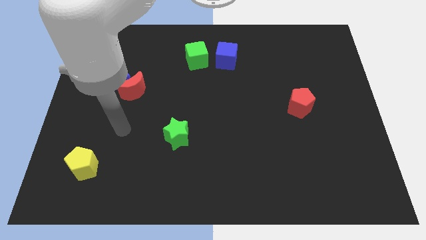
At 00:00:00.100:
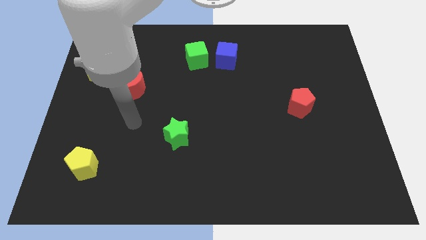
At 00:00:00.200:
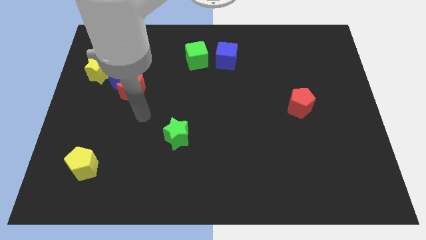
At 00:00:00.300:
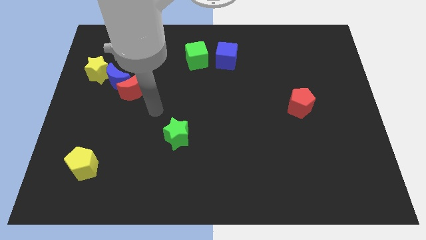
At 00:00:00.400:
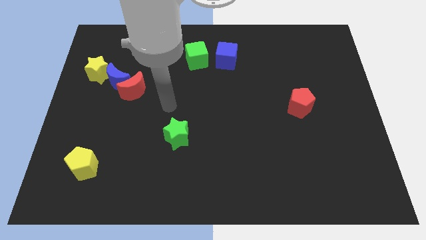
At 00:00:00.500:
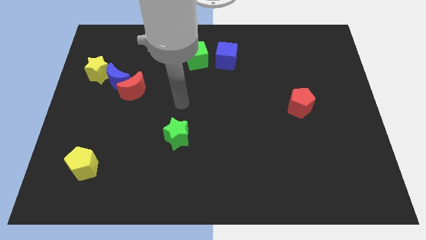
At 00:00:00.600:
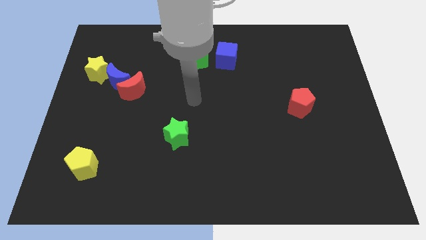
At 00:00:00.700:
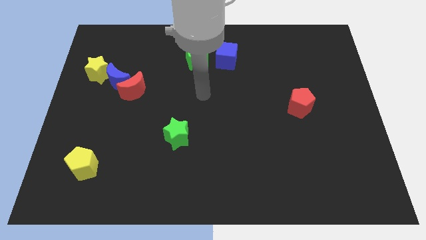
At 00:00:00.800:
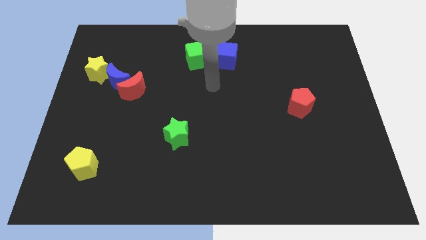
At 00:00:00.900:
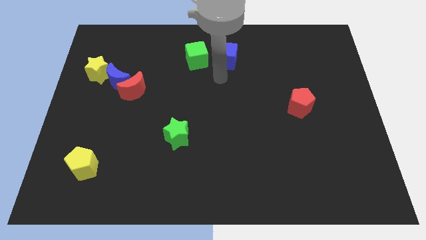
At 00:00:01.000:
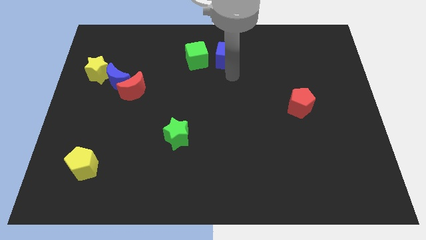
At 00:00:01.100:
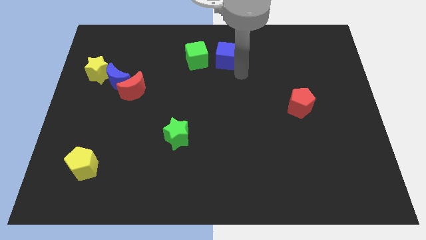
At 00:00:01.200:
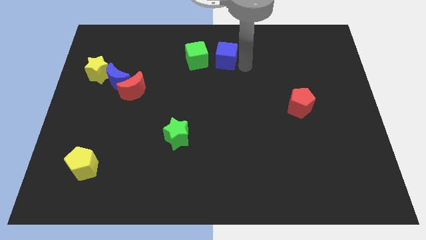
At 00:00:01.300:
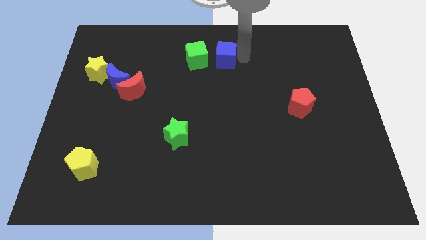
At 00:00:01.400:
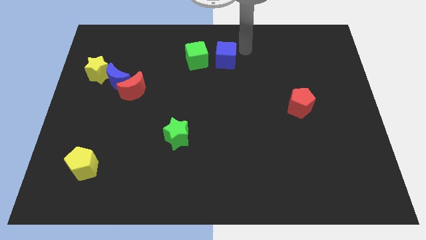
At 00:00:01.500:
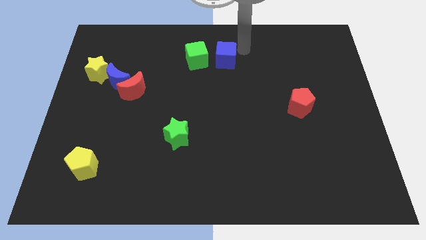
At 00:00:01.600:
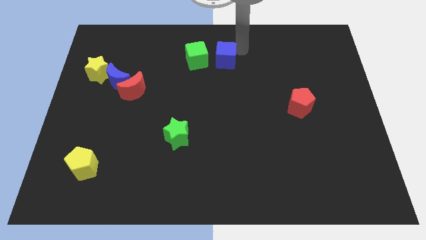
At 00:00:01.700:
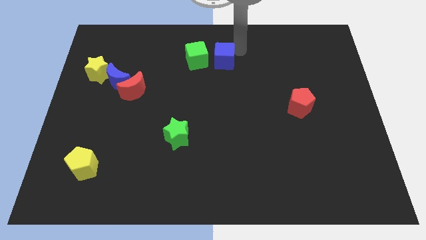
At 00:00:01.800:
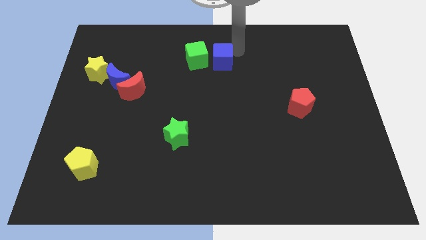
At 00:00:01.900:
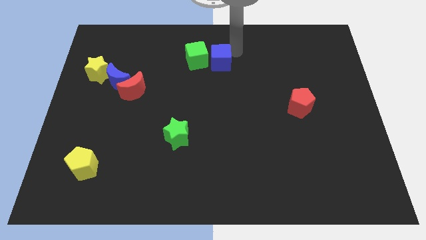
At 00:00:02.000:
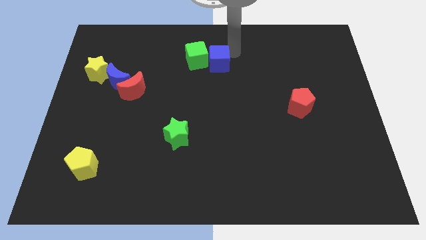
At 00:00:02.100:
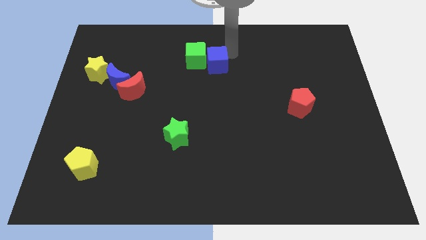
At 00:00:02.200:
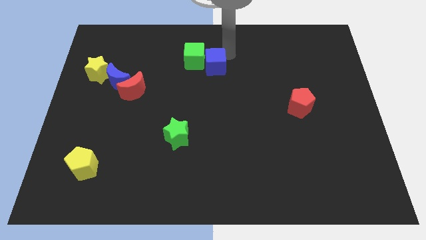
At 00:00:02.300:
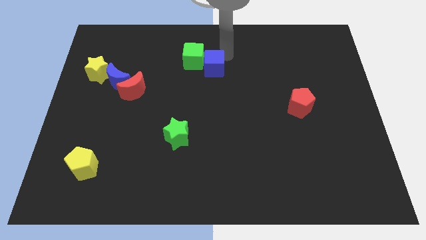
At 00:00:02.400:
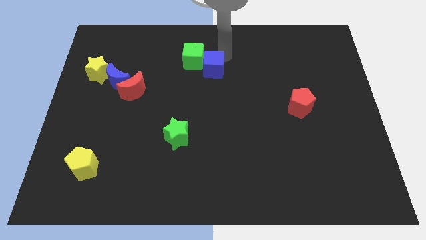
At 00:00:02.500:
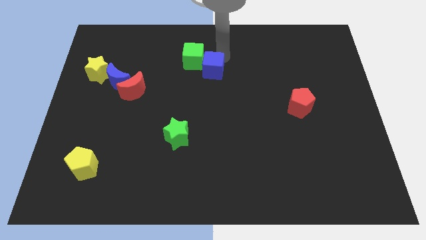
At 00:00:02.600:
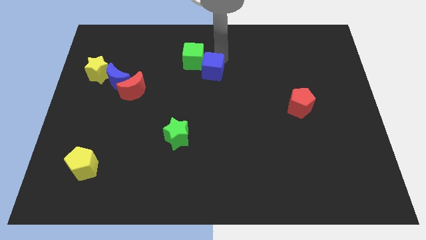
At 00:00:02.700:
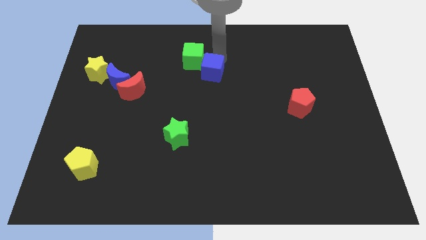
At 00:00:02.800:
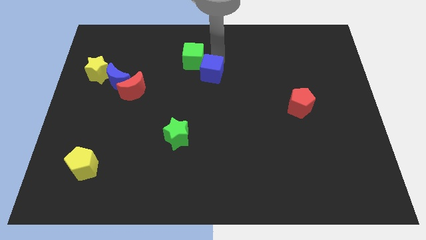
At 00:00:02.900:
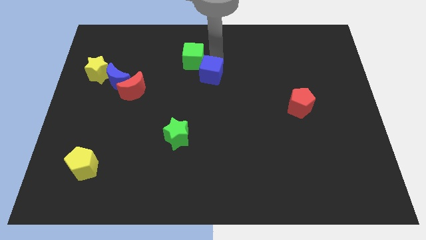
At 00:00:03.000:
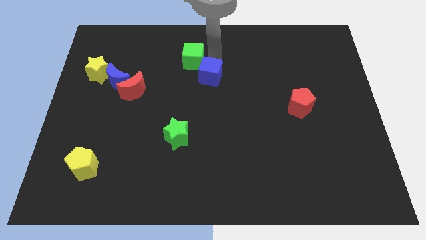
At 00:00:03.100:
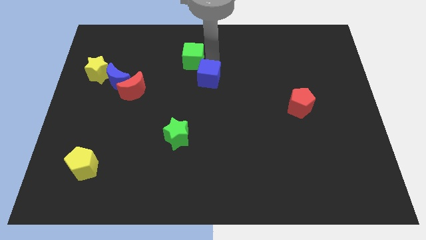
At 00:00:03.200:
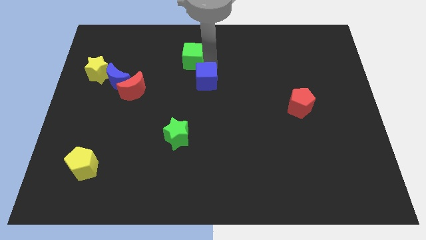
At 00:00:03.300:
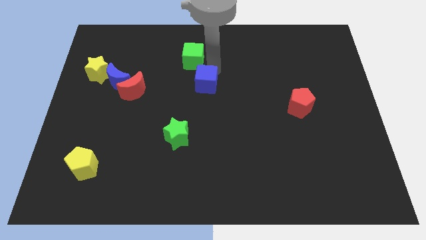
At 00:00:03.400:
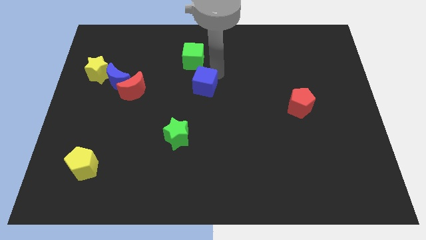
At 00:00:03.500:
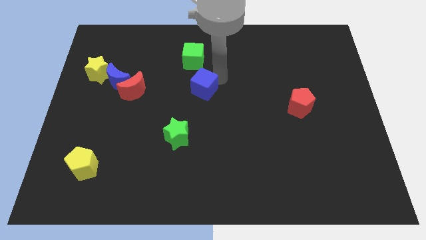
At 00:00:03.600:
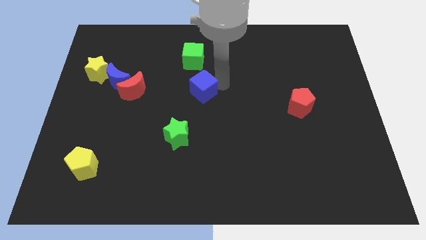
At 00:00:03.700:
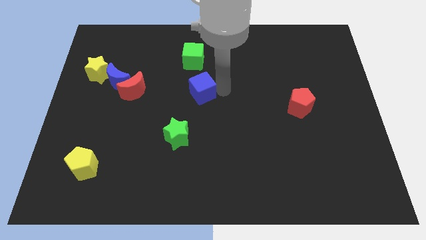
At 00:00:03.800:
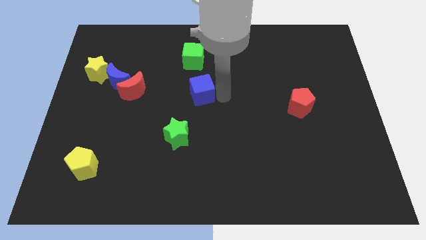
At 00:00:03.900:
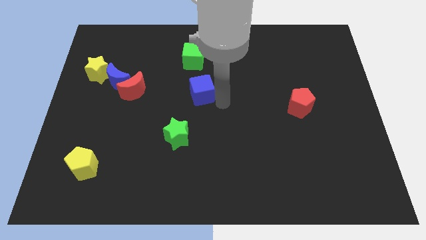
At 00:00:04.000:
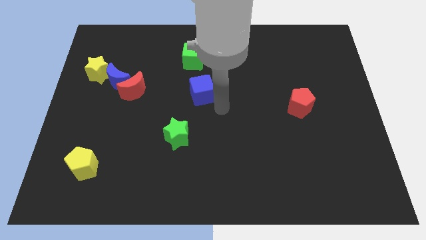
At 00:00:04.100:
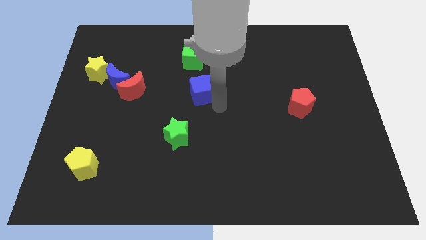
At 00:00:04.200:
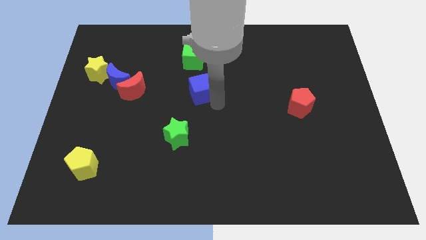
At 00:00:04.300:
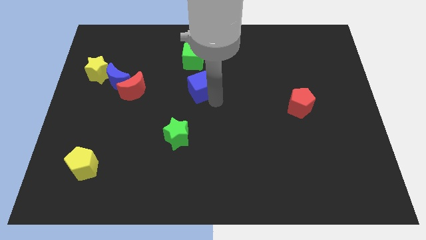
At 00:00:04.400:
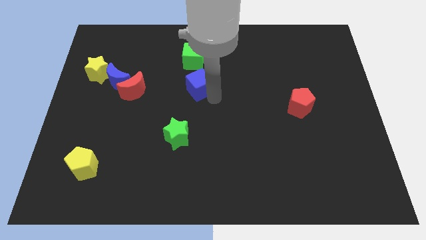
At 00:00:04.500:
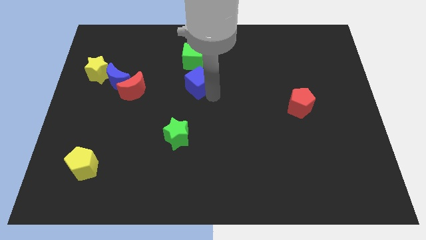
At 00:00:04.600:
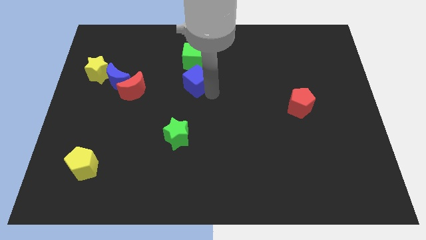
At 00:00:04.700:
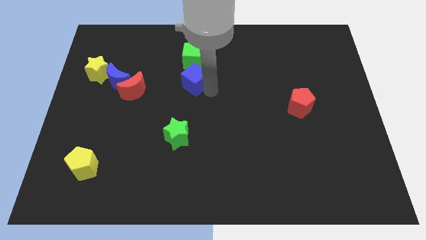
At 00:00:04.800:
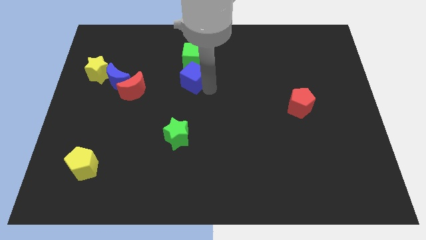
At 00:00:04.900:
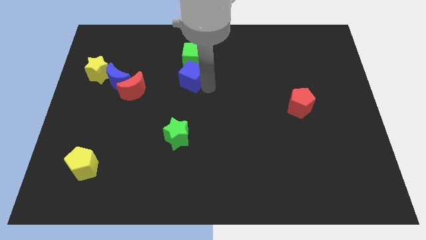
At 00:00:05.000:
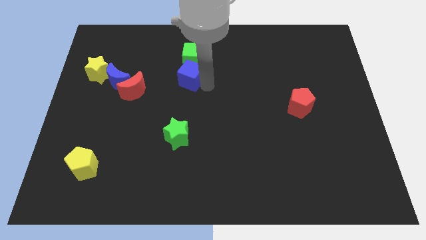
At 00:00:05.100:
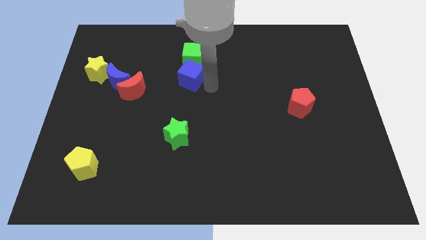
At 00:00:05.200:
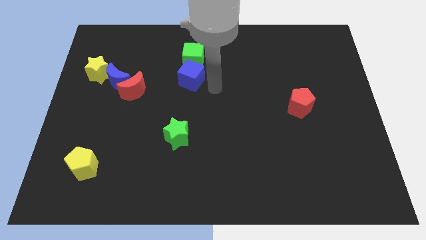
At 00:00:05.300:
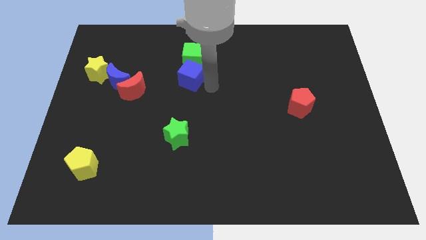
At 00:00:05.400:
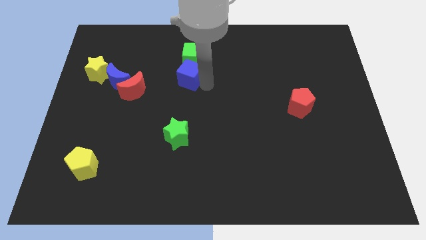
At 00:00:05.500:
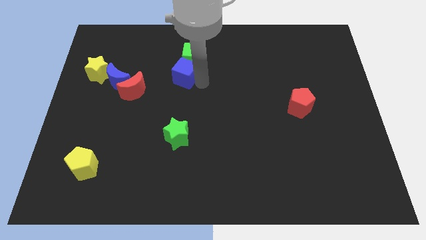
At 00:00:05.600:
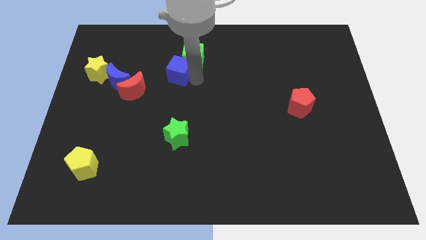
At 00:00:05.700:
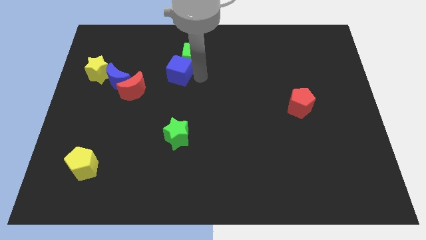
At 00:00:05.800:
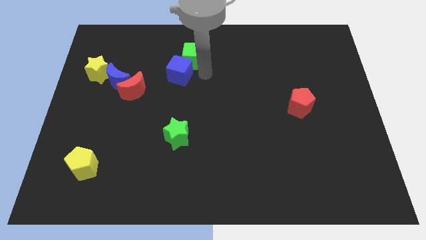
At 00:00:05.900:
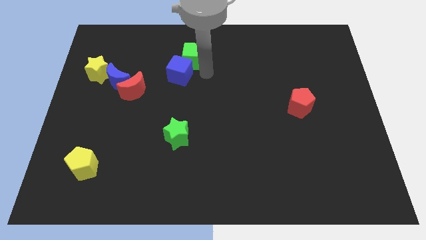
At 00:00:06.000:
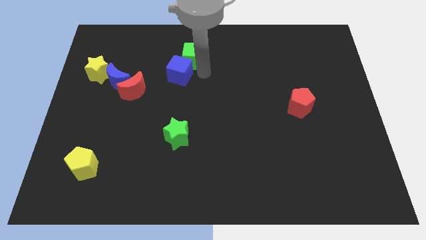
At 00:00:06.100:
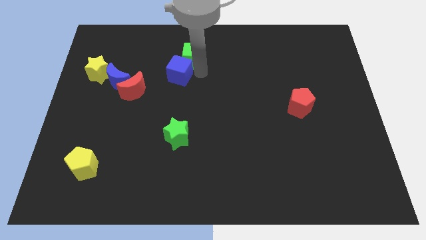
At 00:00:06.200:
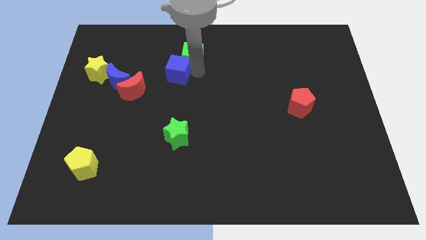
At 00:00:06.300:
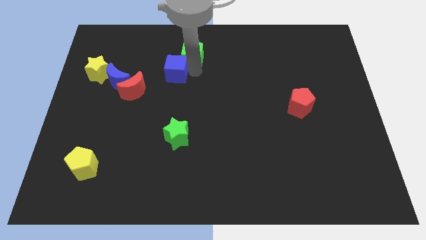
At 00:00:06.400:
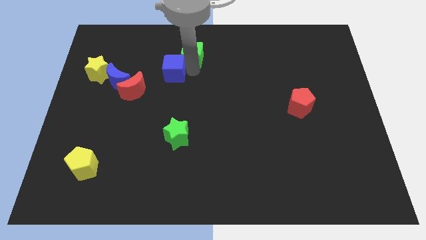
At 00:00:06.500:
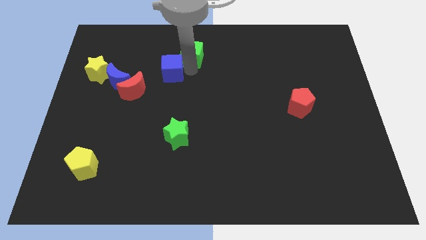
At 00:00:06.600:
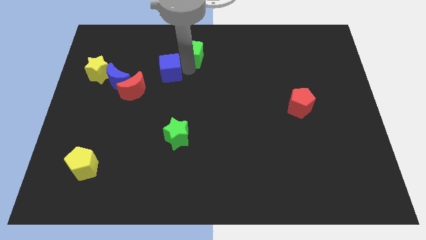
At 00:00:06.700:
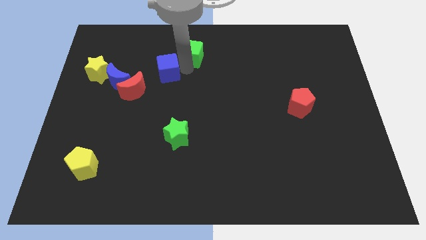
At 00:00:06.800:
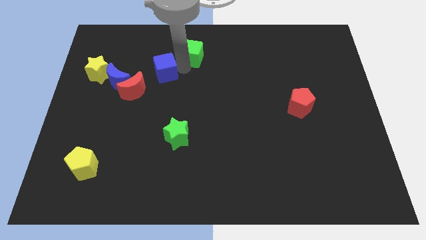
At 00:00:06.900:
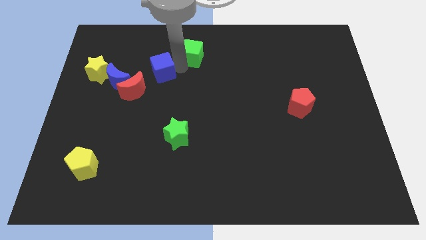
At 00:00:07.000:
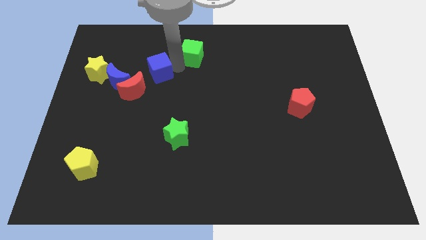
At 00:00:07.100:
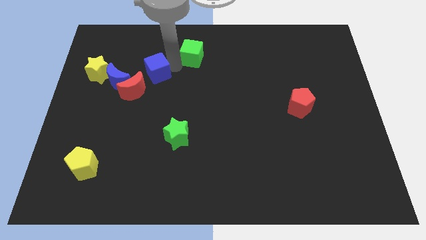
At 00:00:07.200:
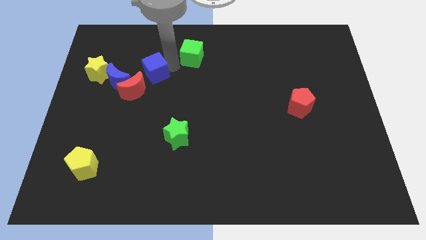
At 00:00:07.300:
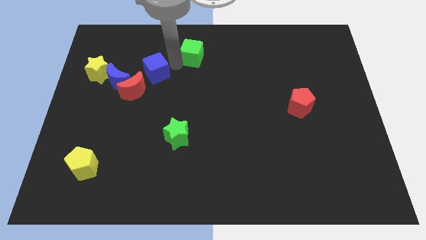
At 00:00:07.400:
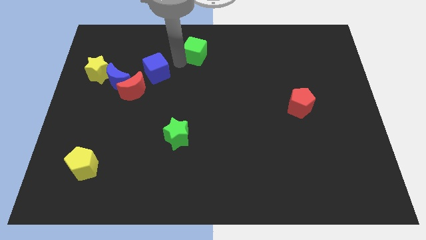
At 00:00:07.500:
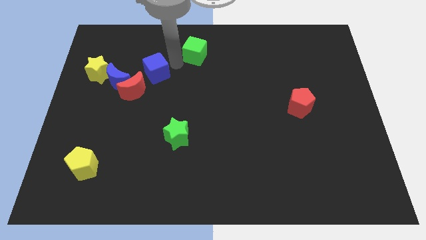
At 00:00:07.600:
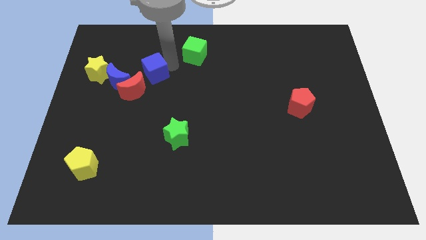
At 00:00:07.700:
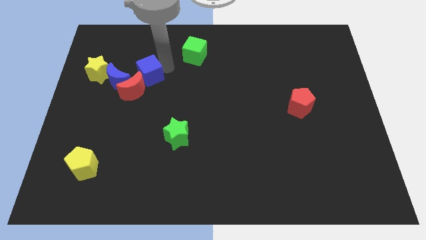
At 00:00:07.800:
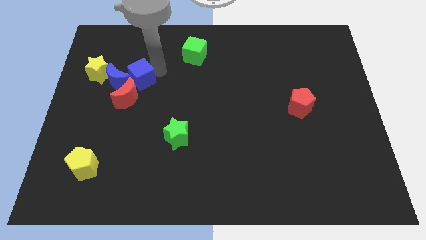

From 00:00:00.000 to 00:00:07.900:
push the blue cube to the blue moon
